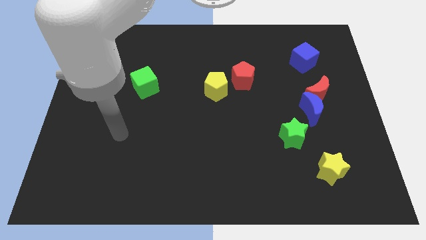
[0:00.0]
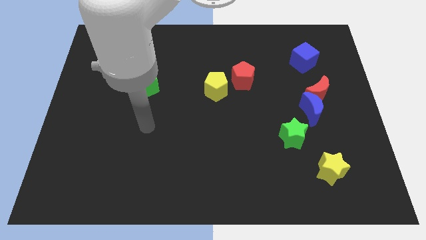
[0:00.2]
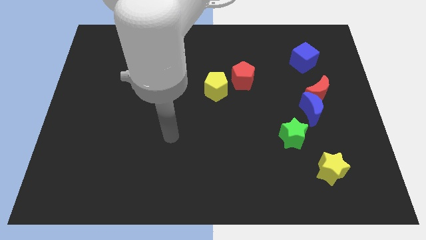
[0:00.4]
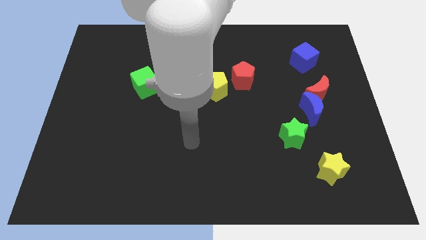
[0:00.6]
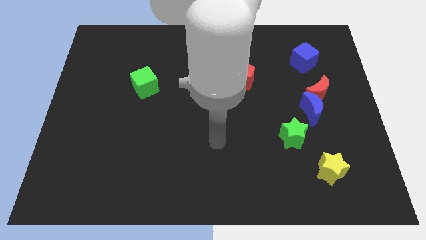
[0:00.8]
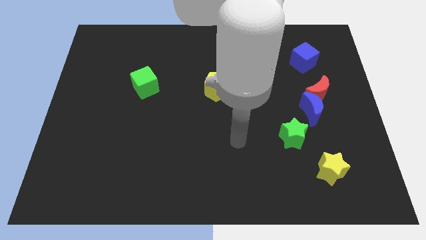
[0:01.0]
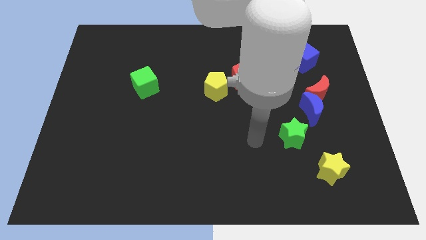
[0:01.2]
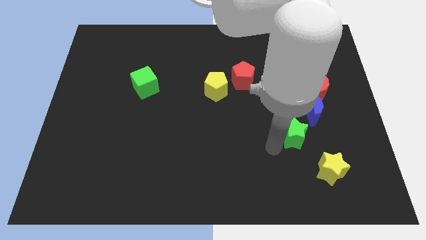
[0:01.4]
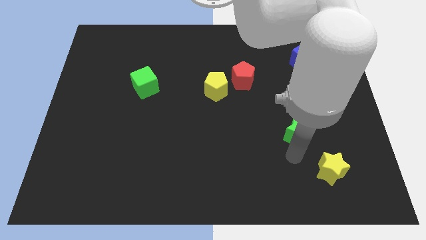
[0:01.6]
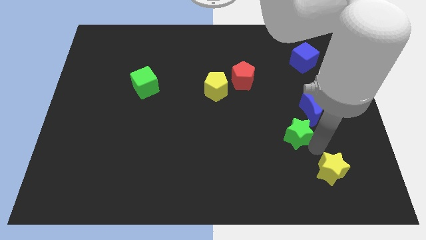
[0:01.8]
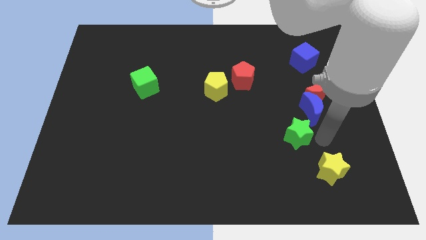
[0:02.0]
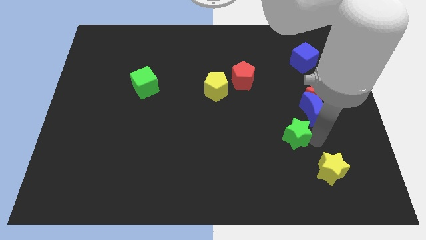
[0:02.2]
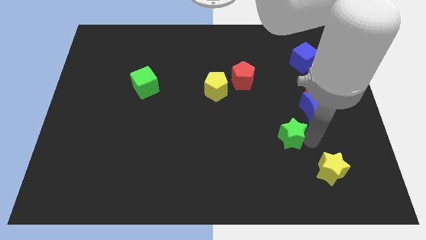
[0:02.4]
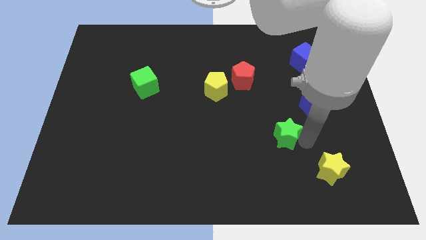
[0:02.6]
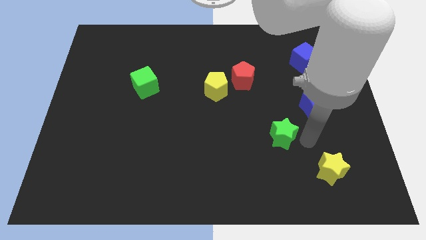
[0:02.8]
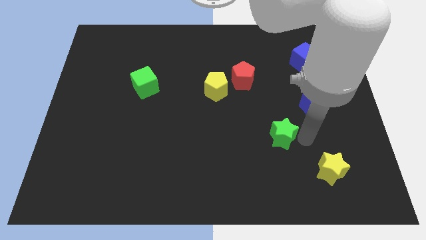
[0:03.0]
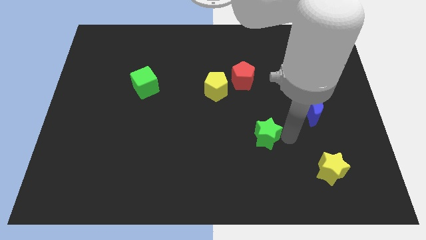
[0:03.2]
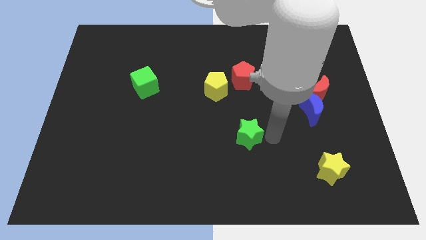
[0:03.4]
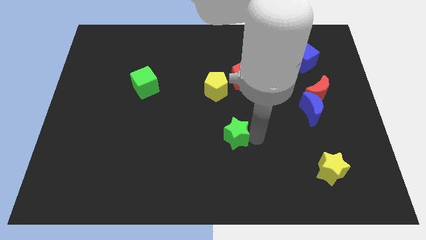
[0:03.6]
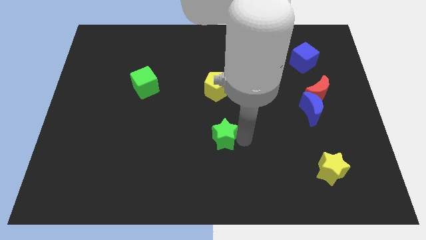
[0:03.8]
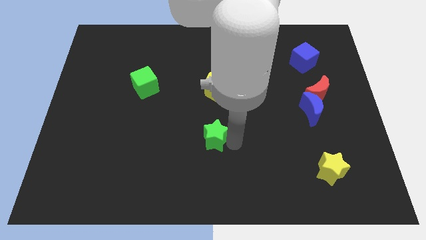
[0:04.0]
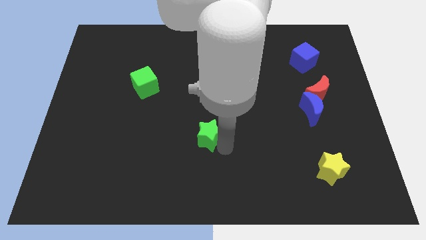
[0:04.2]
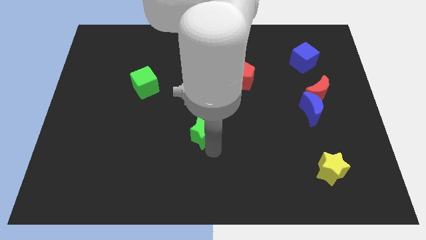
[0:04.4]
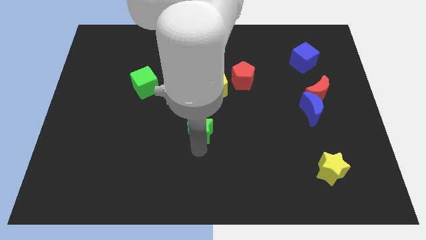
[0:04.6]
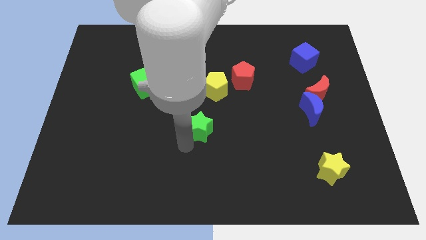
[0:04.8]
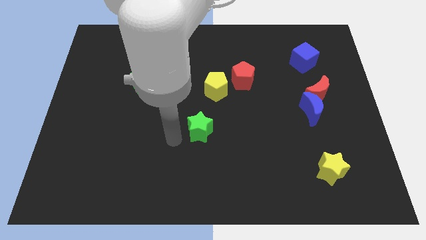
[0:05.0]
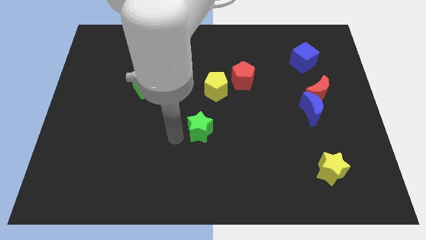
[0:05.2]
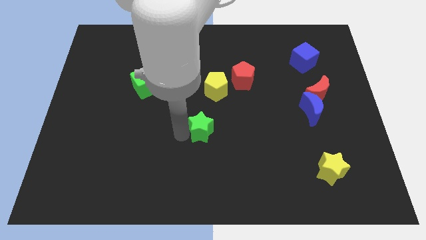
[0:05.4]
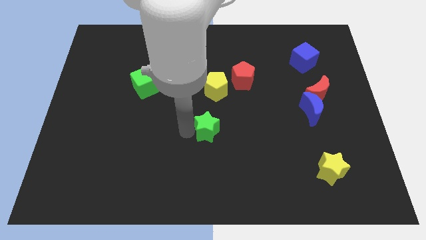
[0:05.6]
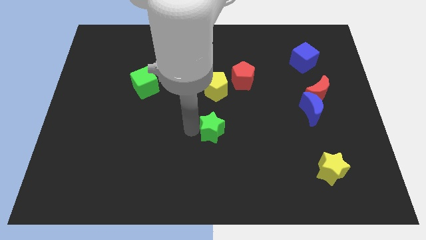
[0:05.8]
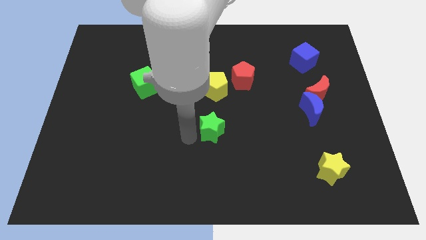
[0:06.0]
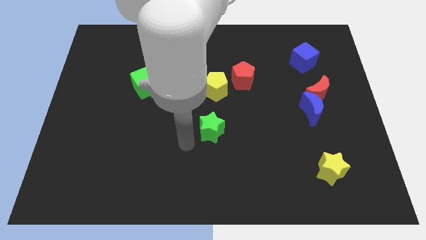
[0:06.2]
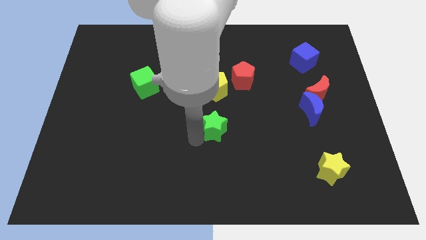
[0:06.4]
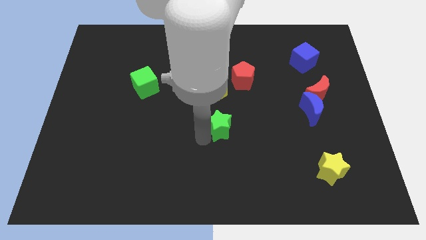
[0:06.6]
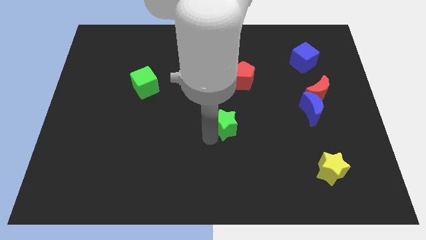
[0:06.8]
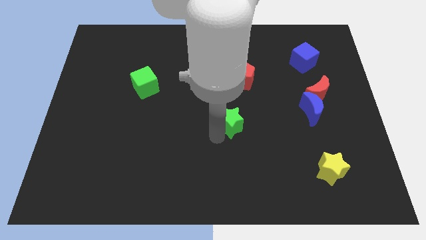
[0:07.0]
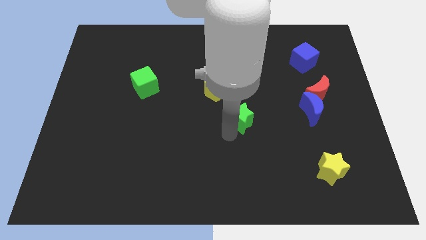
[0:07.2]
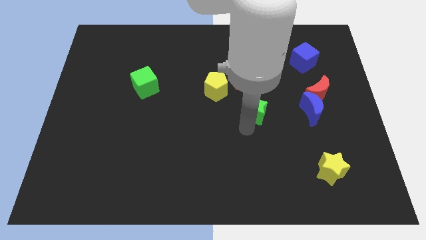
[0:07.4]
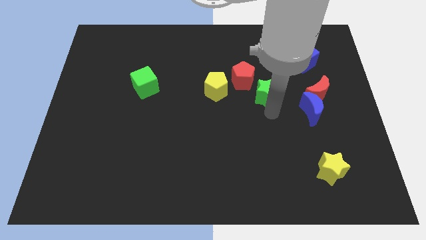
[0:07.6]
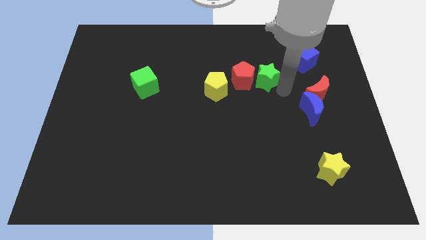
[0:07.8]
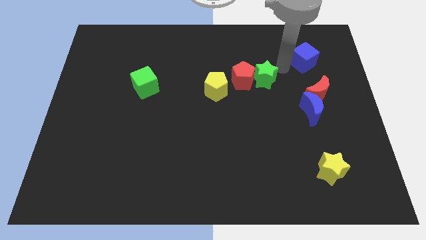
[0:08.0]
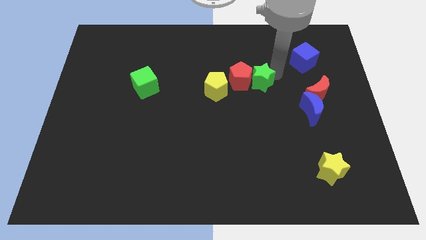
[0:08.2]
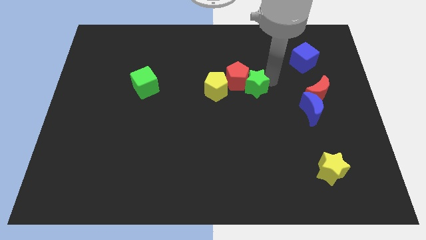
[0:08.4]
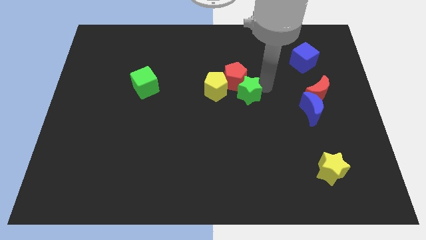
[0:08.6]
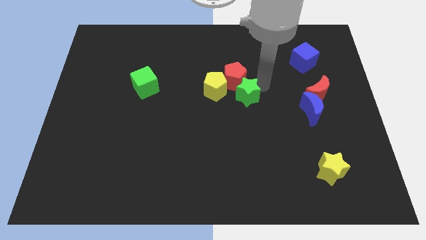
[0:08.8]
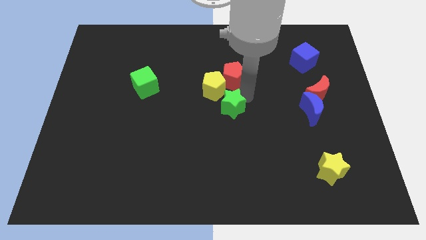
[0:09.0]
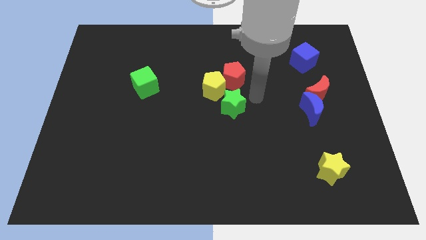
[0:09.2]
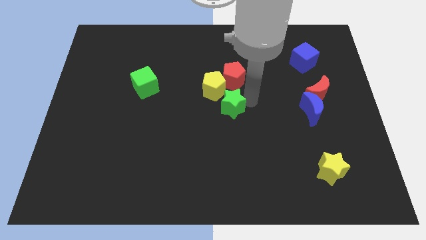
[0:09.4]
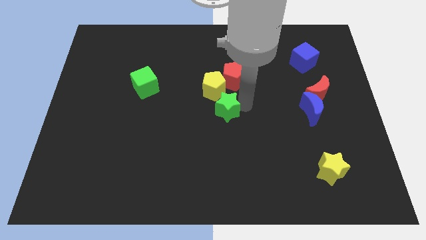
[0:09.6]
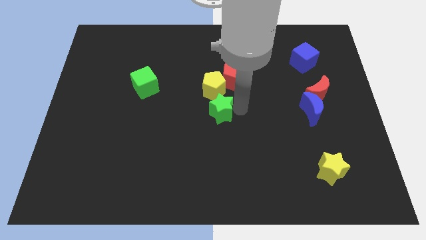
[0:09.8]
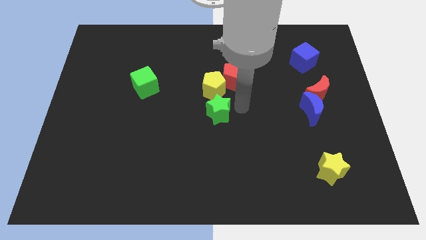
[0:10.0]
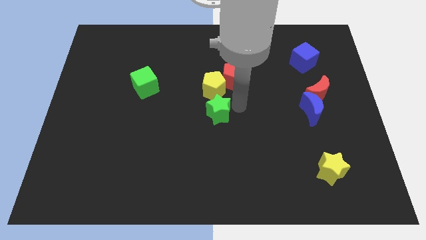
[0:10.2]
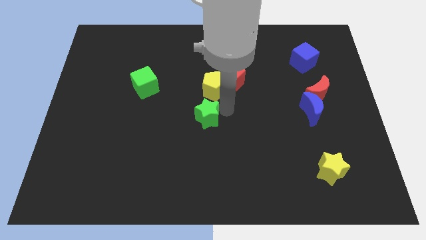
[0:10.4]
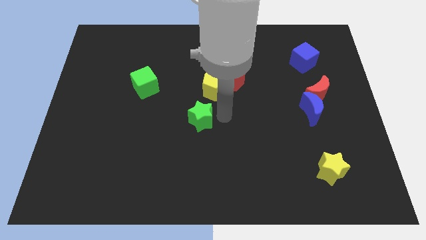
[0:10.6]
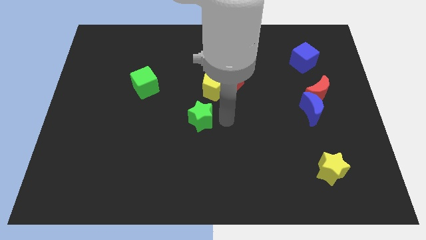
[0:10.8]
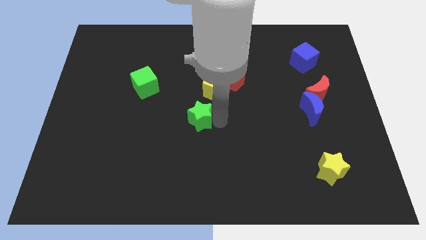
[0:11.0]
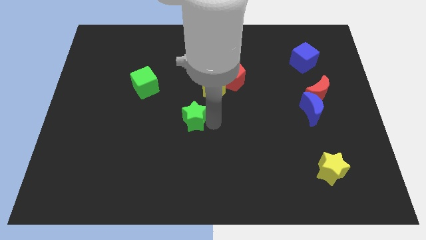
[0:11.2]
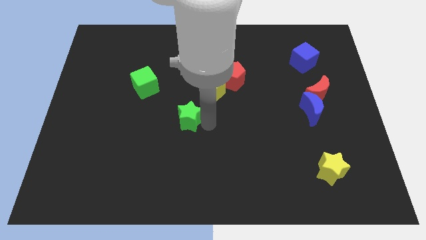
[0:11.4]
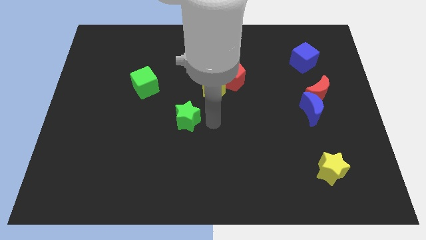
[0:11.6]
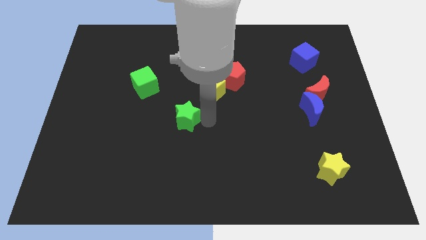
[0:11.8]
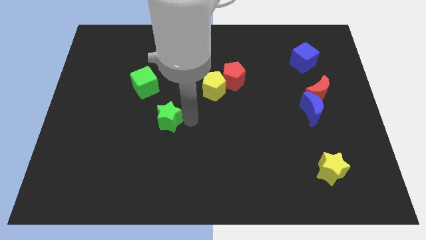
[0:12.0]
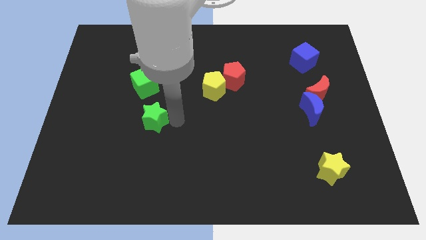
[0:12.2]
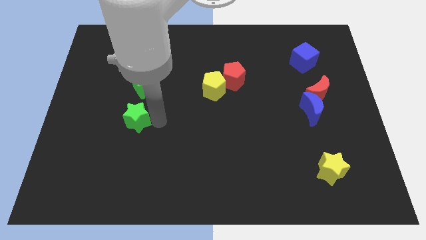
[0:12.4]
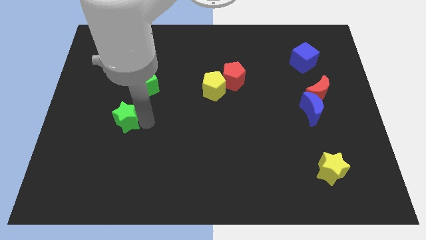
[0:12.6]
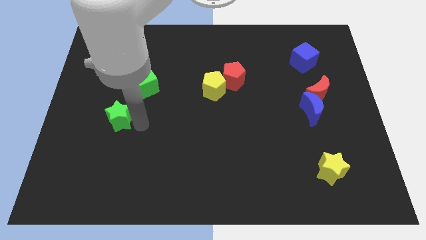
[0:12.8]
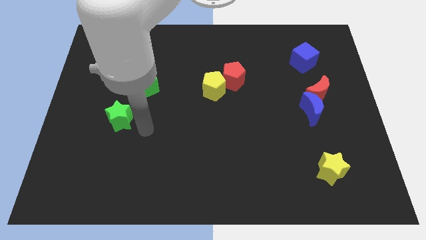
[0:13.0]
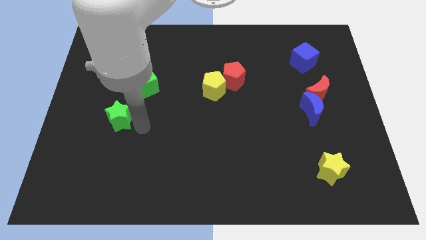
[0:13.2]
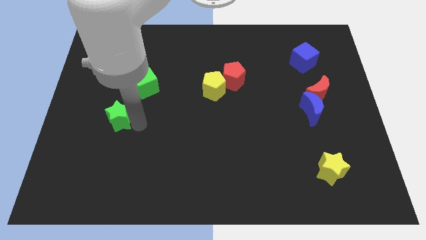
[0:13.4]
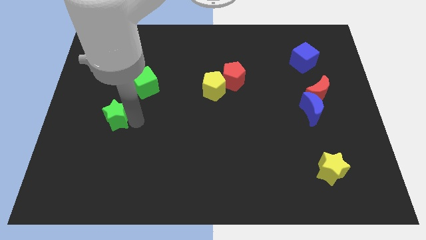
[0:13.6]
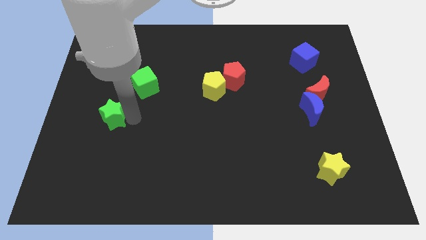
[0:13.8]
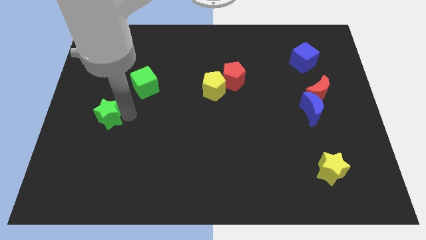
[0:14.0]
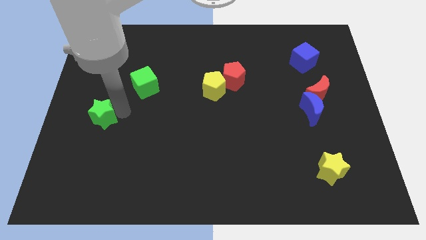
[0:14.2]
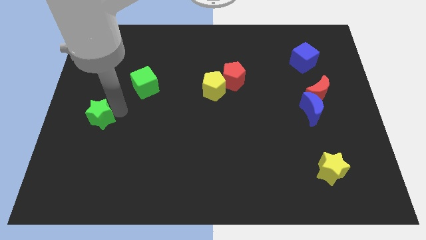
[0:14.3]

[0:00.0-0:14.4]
put the green star to the center left
